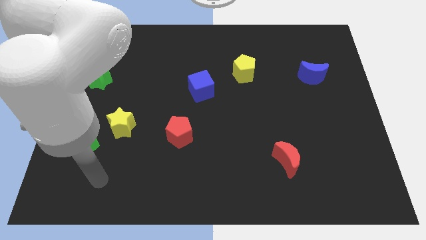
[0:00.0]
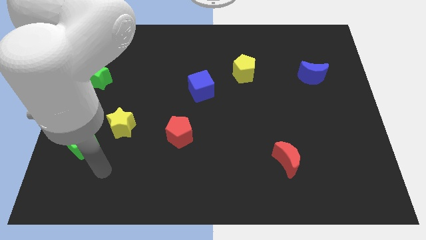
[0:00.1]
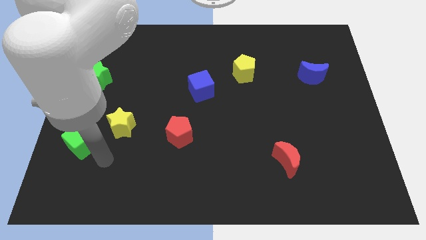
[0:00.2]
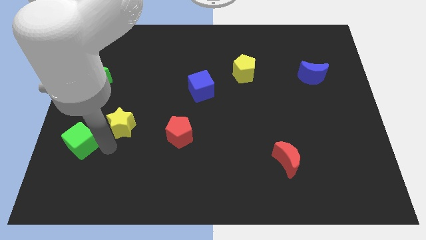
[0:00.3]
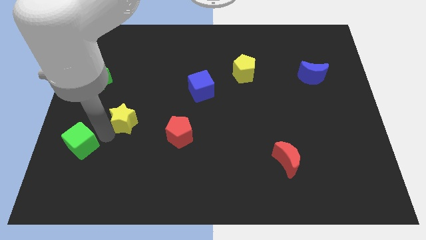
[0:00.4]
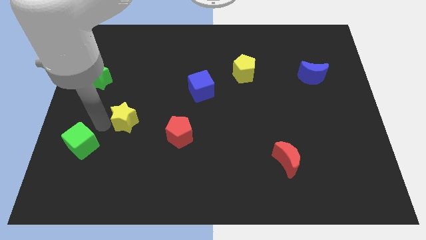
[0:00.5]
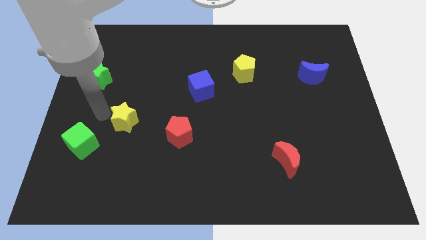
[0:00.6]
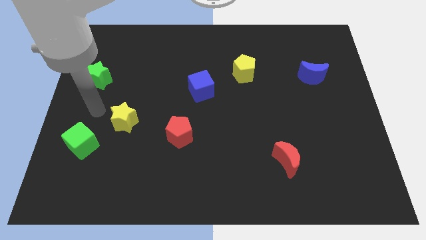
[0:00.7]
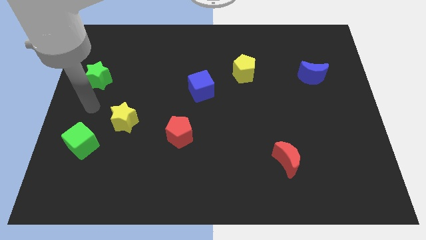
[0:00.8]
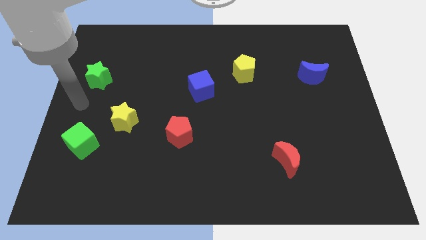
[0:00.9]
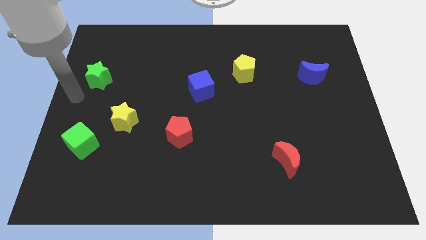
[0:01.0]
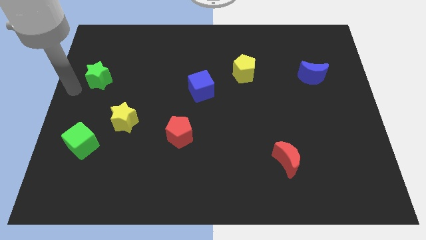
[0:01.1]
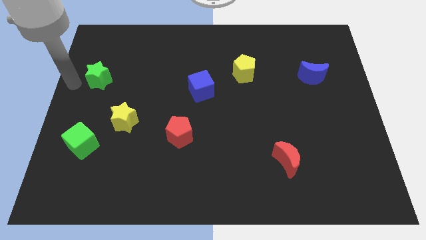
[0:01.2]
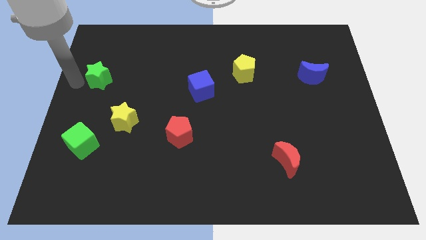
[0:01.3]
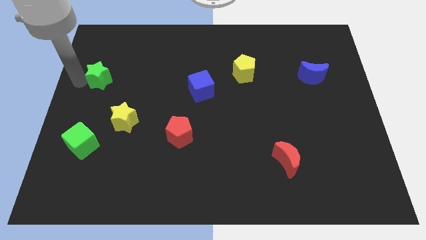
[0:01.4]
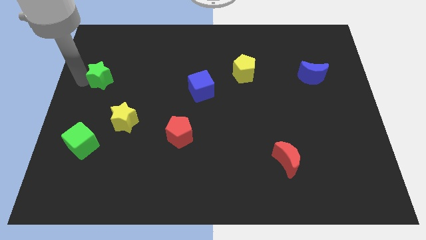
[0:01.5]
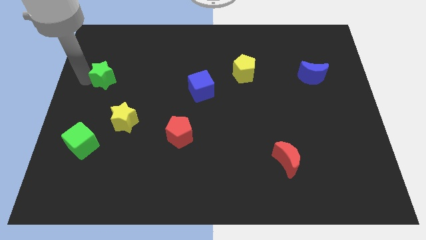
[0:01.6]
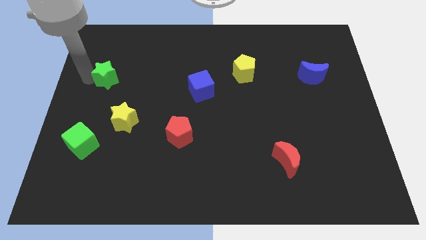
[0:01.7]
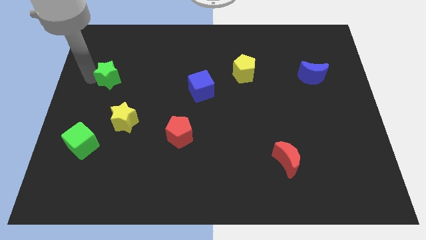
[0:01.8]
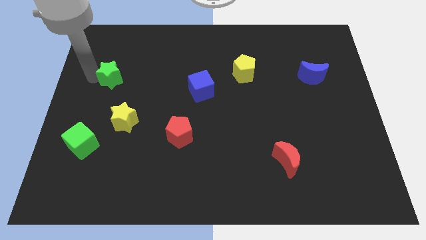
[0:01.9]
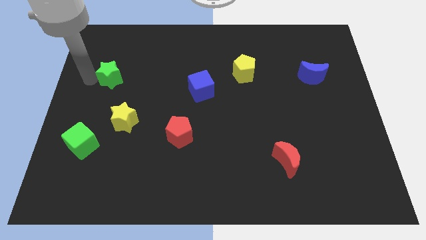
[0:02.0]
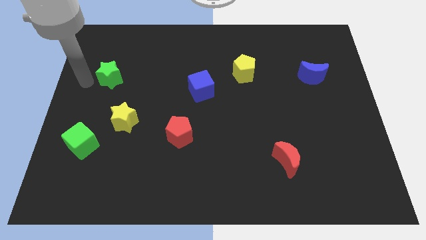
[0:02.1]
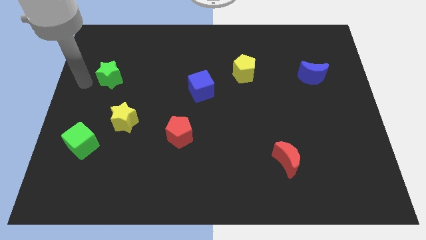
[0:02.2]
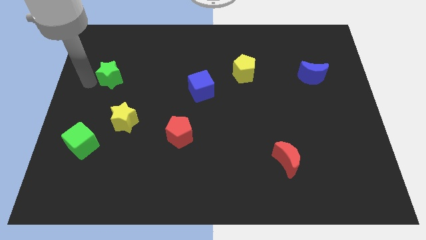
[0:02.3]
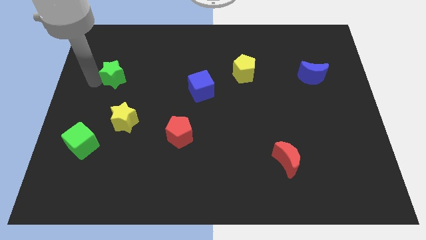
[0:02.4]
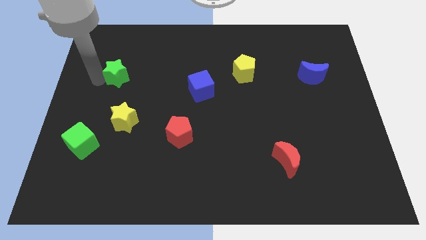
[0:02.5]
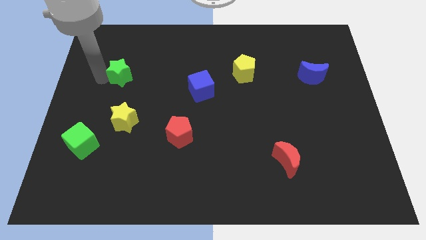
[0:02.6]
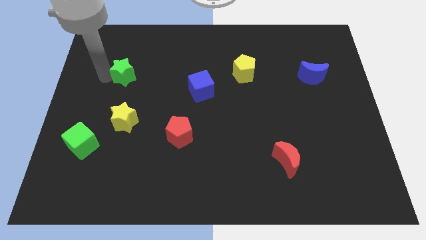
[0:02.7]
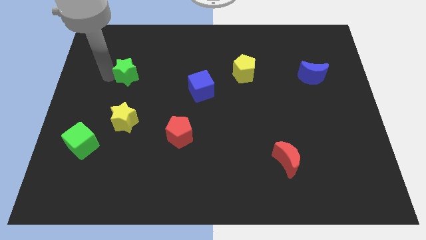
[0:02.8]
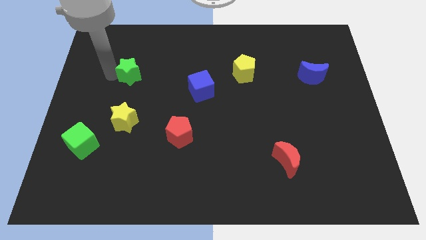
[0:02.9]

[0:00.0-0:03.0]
push the green star right a little

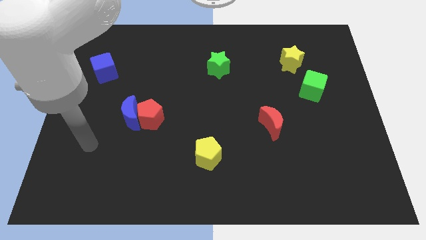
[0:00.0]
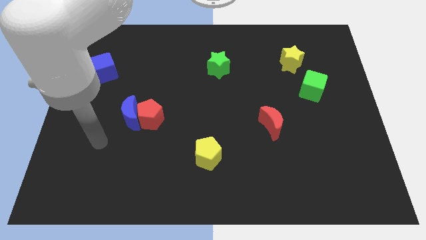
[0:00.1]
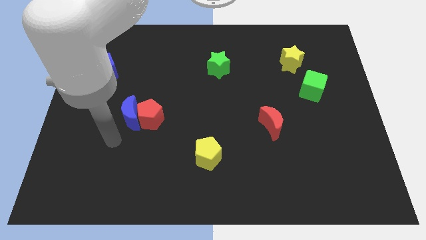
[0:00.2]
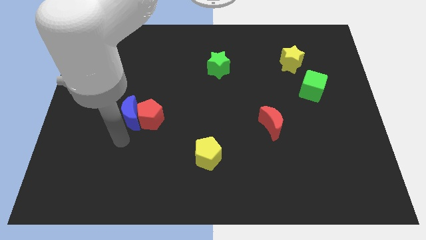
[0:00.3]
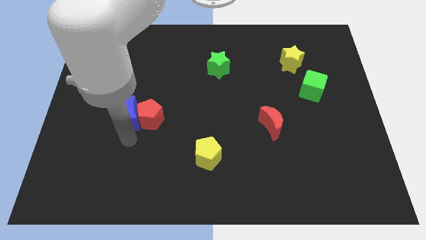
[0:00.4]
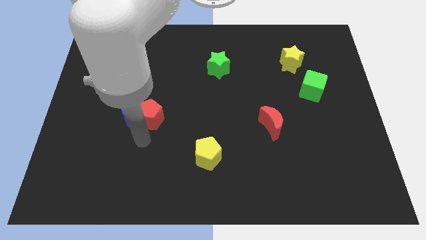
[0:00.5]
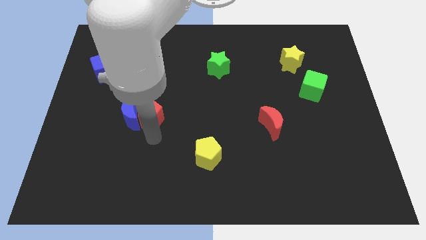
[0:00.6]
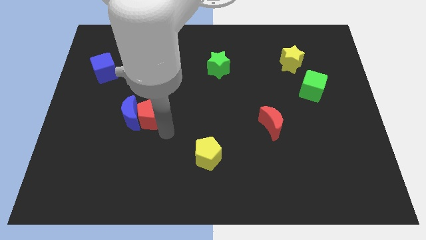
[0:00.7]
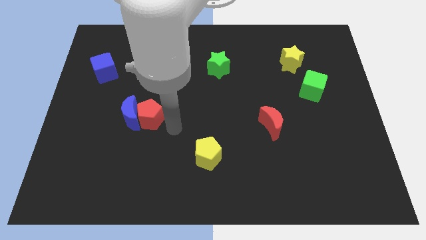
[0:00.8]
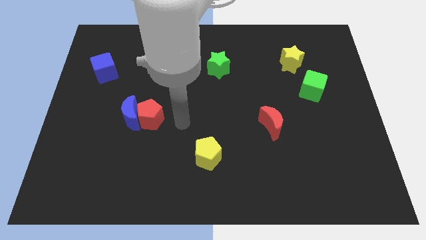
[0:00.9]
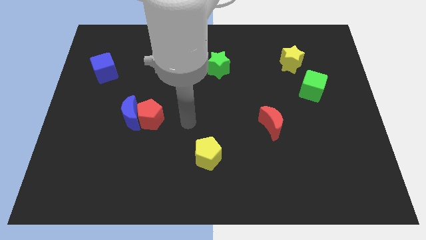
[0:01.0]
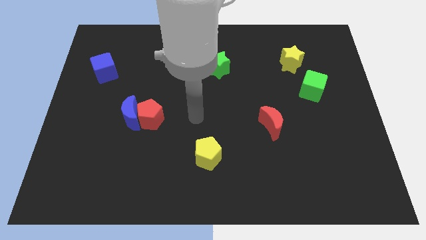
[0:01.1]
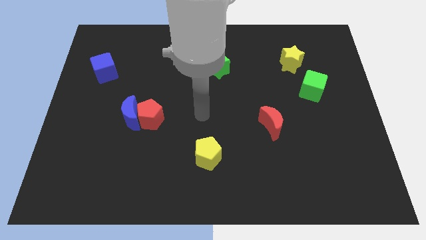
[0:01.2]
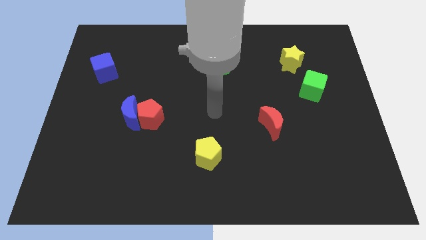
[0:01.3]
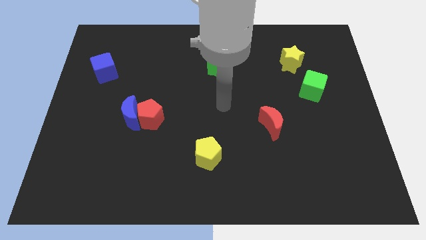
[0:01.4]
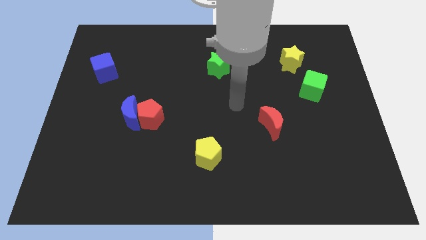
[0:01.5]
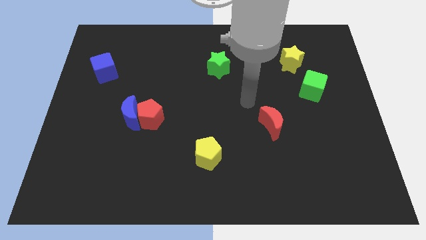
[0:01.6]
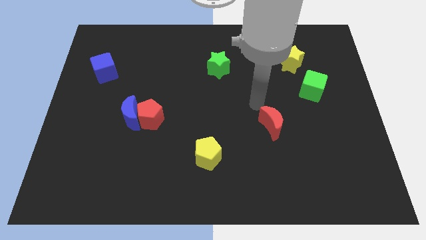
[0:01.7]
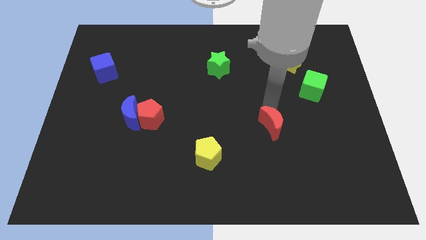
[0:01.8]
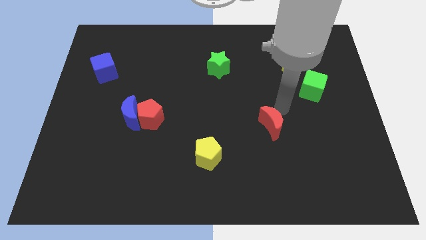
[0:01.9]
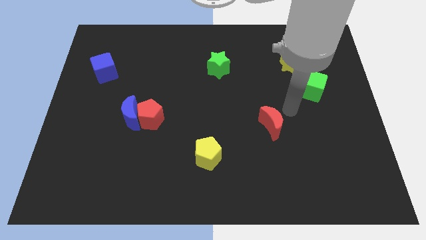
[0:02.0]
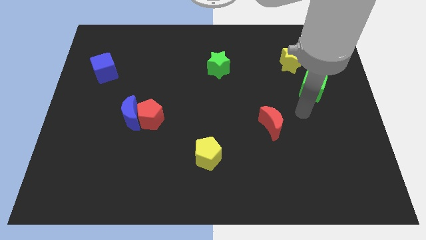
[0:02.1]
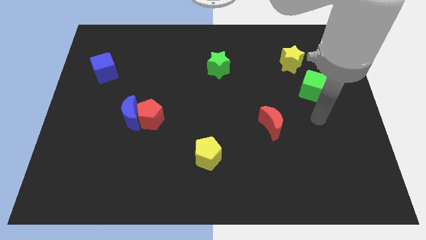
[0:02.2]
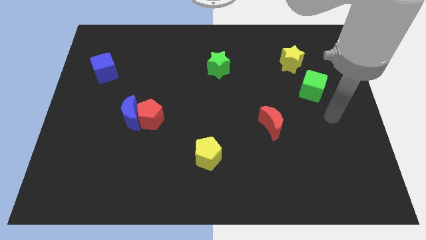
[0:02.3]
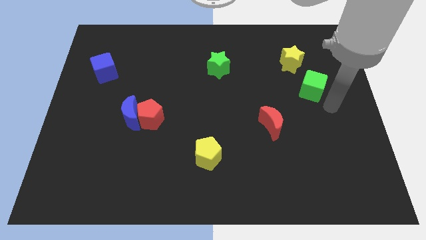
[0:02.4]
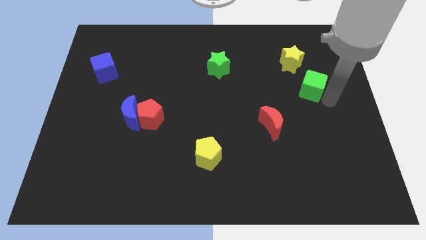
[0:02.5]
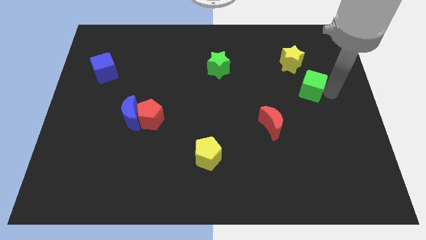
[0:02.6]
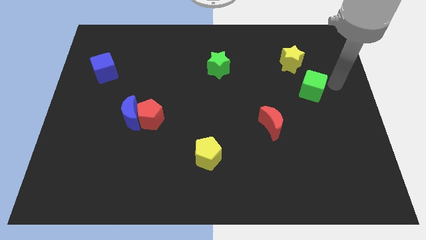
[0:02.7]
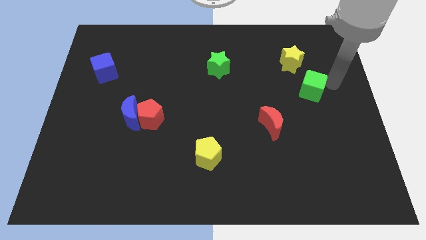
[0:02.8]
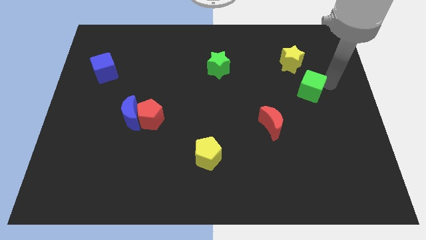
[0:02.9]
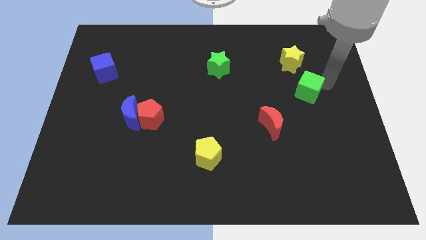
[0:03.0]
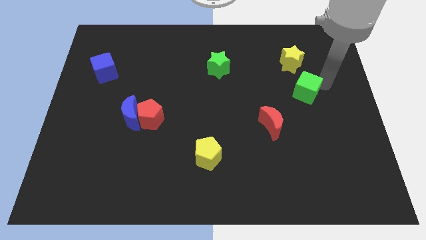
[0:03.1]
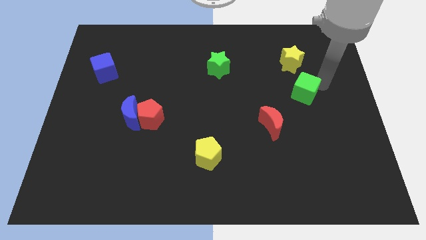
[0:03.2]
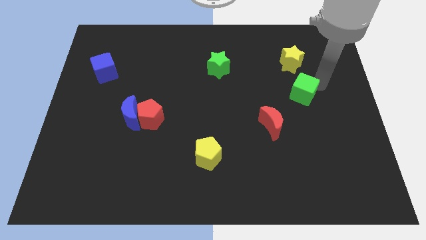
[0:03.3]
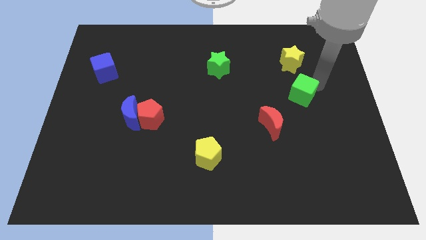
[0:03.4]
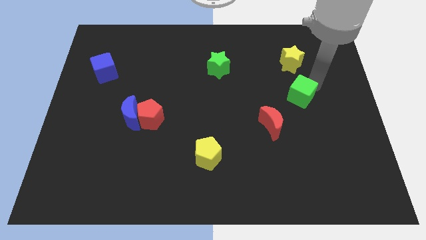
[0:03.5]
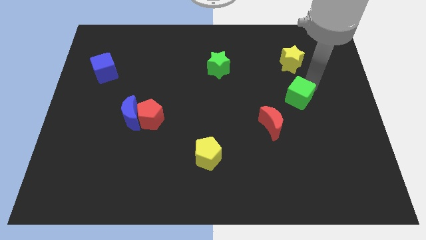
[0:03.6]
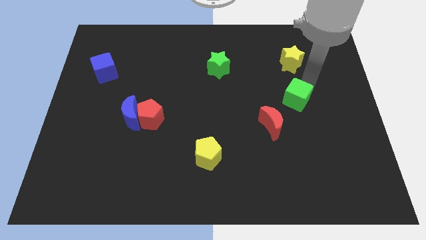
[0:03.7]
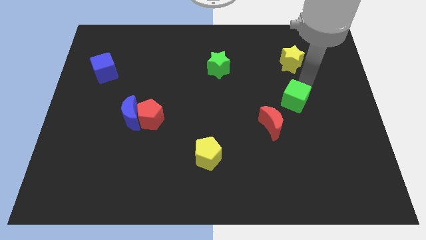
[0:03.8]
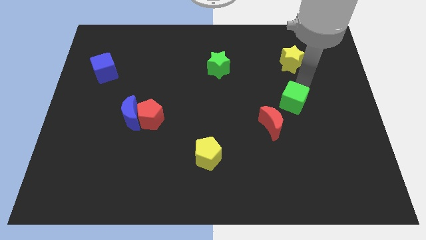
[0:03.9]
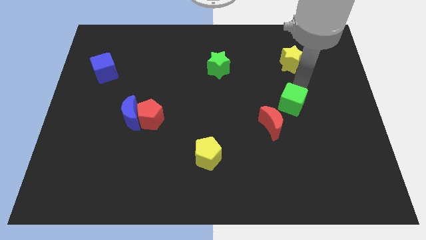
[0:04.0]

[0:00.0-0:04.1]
slide the green cube down and left a little bit

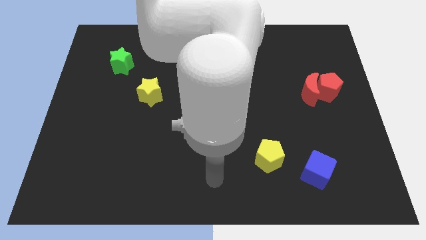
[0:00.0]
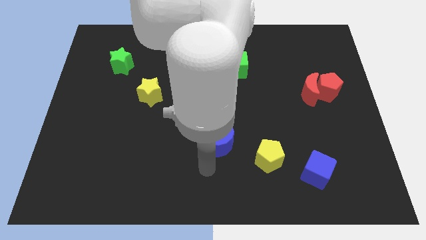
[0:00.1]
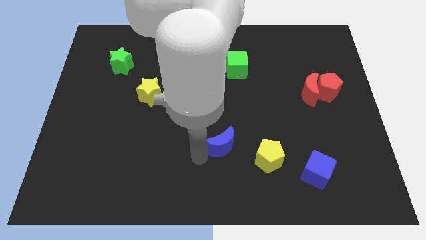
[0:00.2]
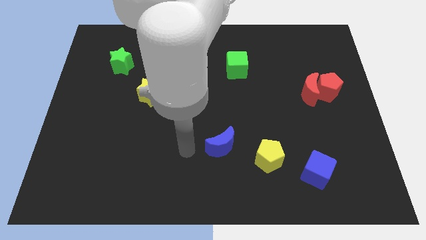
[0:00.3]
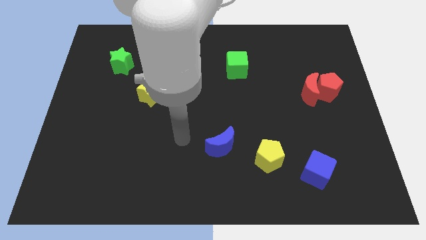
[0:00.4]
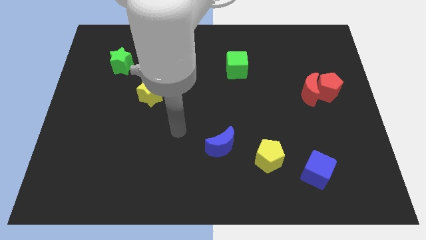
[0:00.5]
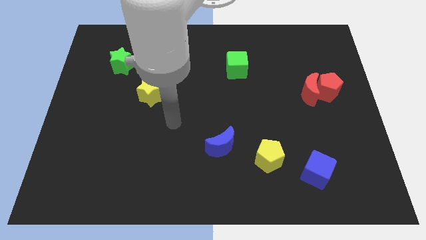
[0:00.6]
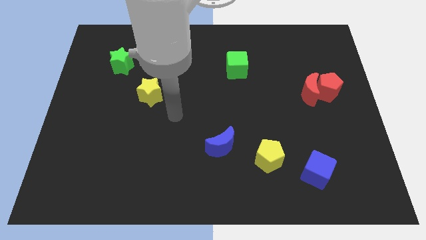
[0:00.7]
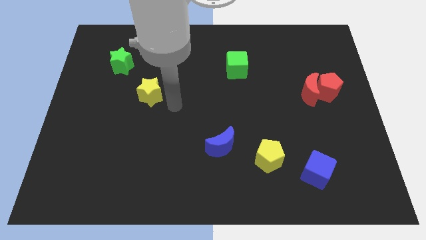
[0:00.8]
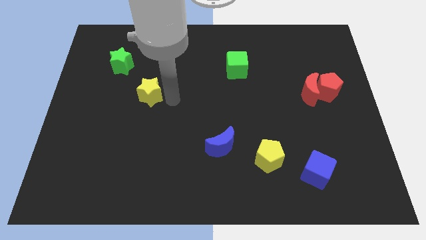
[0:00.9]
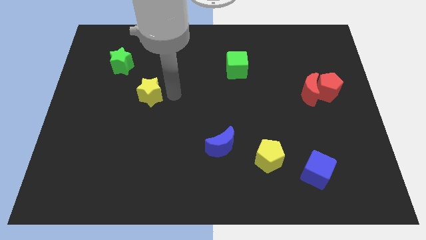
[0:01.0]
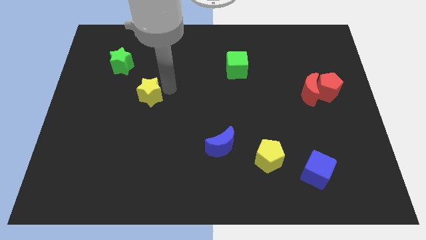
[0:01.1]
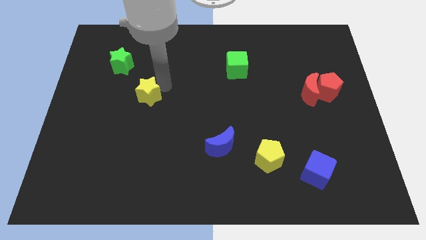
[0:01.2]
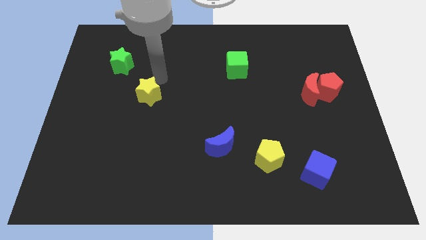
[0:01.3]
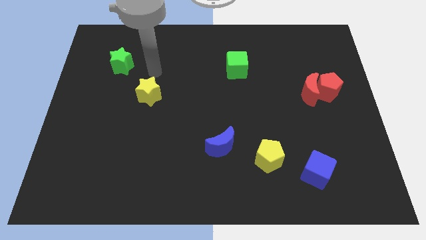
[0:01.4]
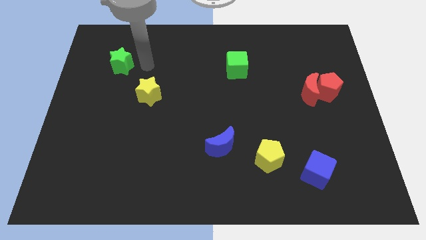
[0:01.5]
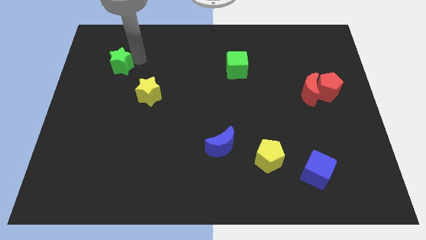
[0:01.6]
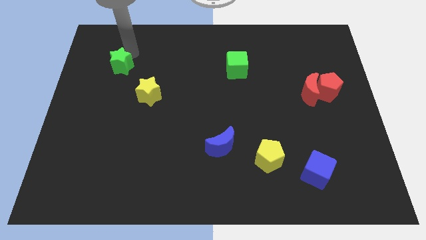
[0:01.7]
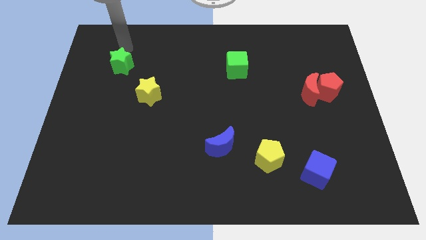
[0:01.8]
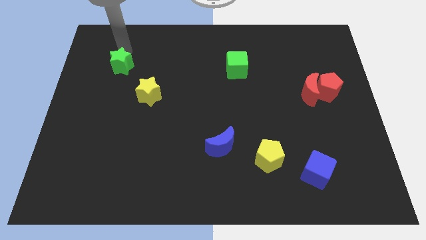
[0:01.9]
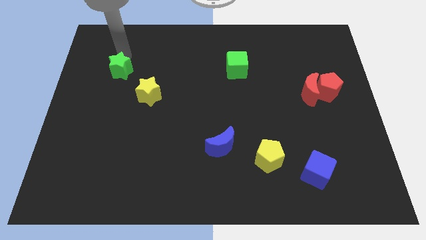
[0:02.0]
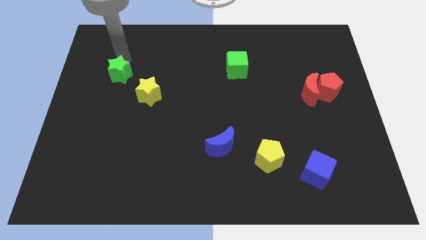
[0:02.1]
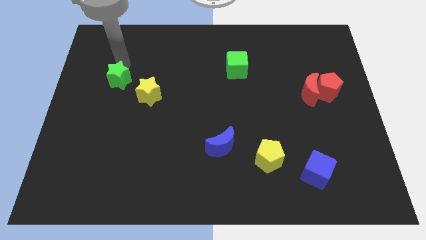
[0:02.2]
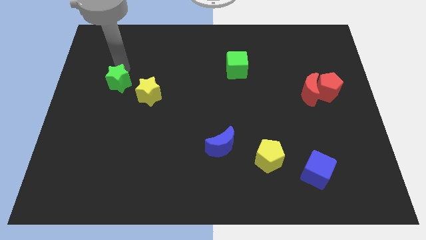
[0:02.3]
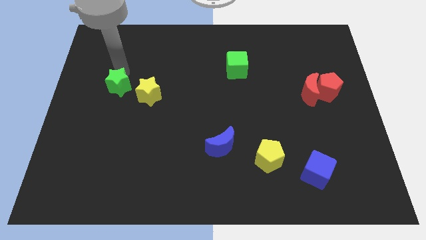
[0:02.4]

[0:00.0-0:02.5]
slightly push the green star downwards
